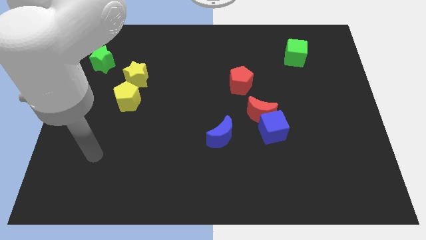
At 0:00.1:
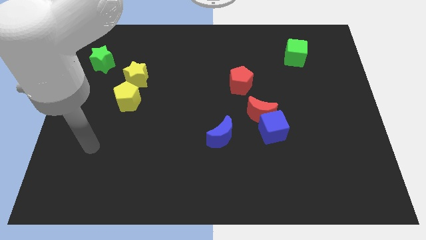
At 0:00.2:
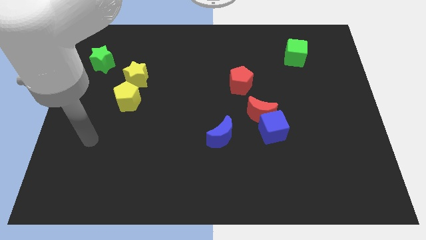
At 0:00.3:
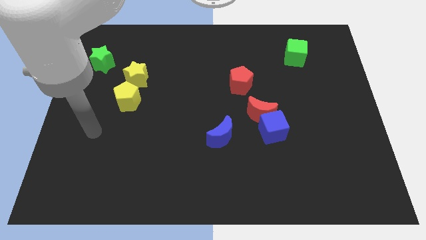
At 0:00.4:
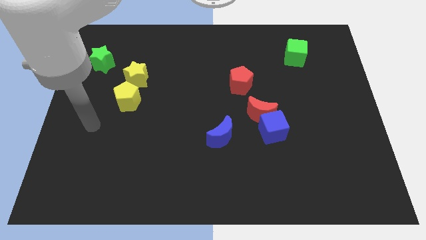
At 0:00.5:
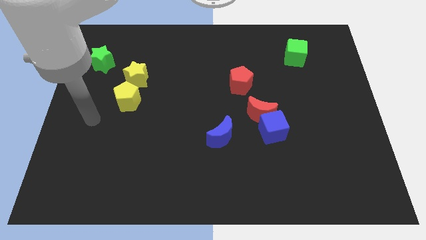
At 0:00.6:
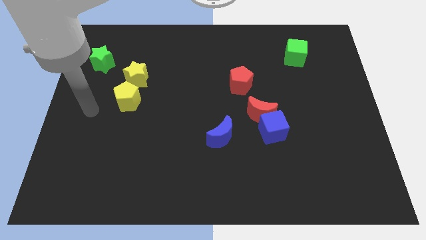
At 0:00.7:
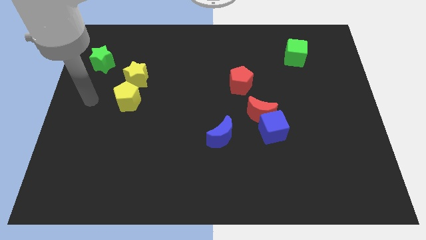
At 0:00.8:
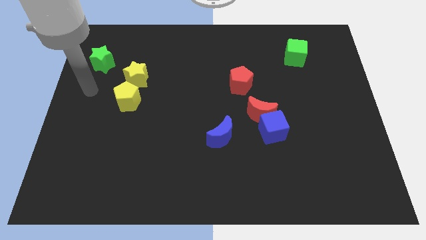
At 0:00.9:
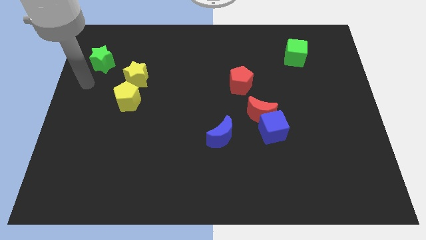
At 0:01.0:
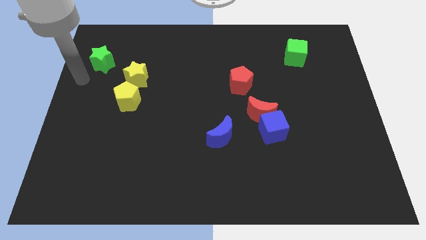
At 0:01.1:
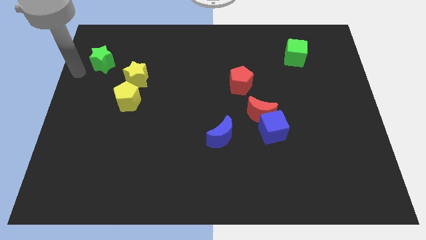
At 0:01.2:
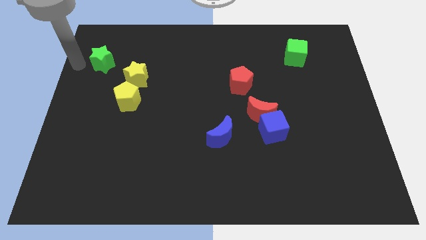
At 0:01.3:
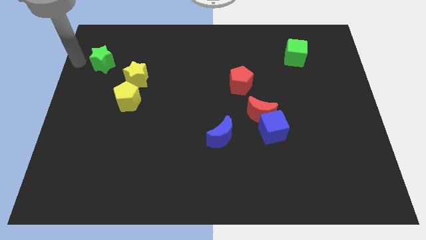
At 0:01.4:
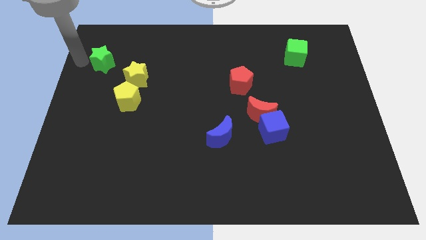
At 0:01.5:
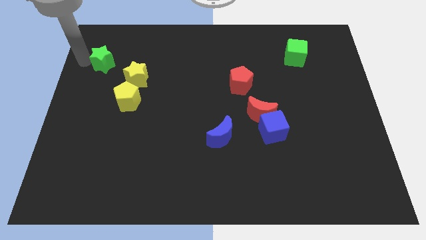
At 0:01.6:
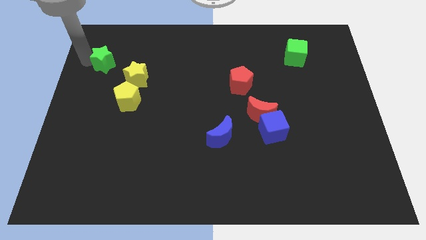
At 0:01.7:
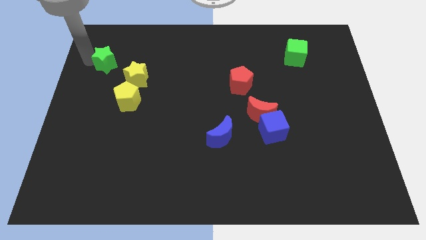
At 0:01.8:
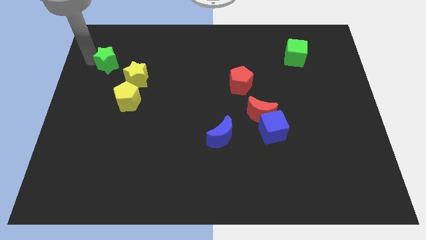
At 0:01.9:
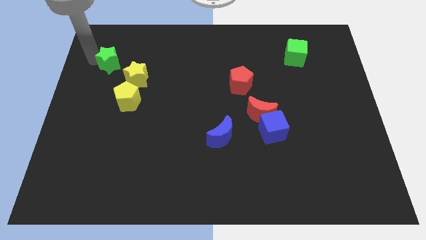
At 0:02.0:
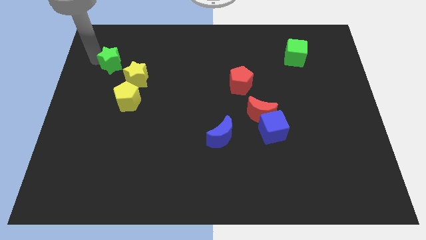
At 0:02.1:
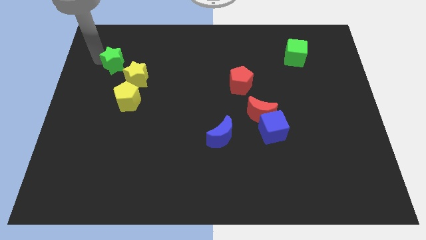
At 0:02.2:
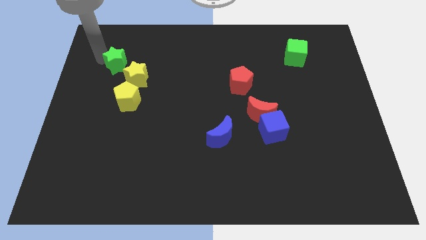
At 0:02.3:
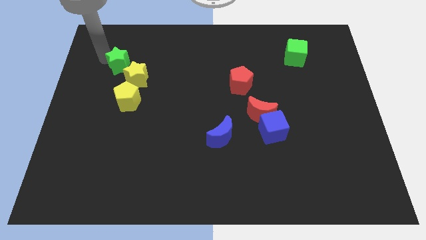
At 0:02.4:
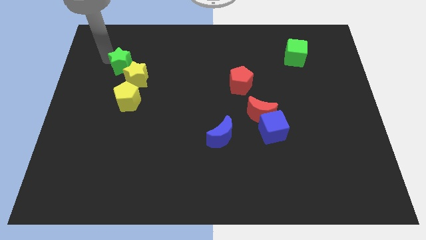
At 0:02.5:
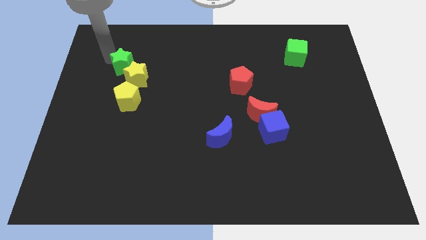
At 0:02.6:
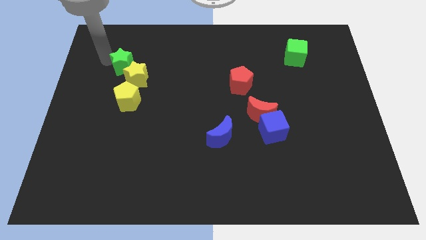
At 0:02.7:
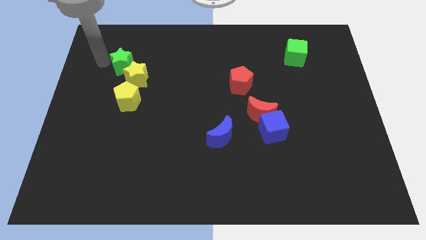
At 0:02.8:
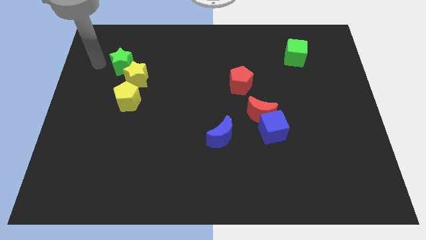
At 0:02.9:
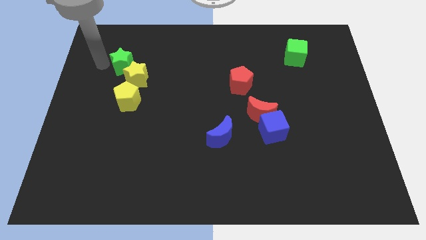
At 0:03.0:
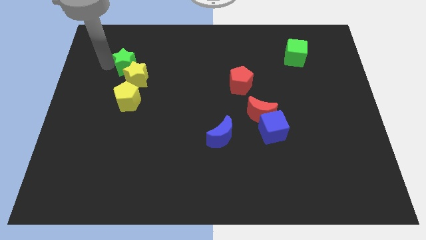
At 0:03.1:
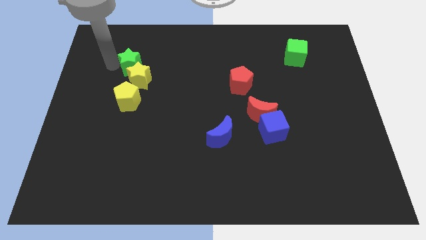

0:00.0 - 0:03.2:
slightly push the green star to the right

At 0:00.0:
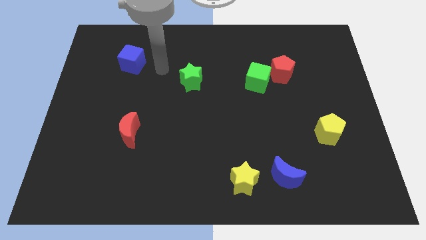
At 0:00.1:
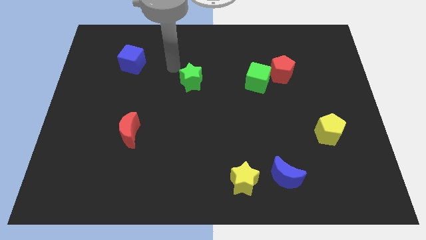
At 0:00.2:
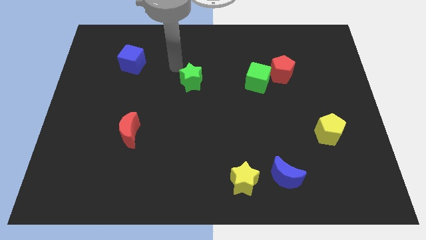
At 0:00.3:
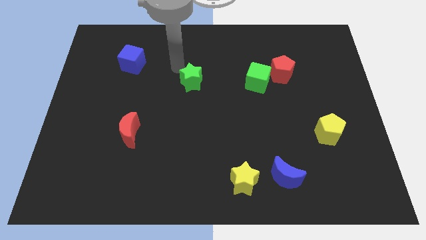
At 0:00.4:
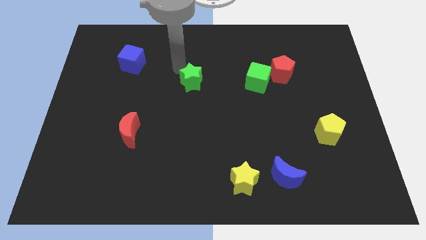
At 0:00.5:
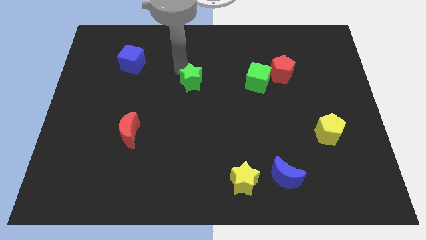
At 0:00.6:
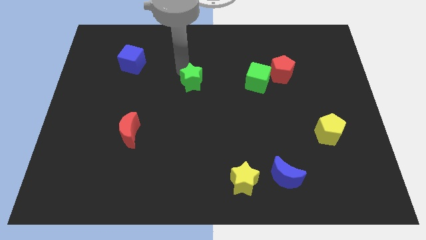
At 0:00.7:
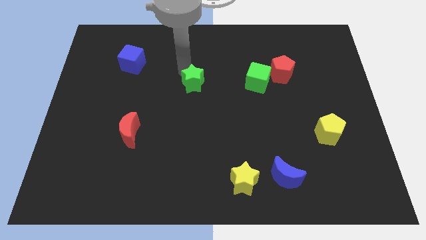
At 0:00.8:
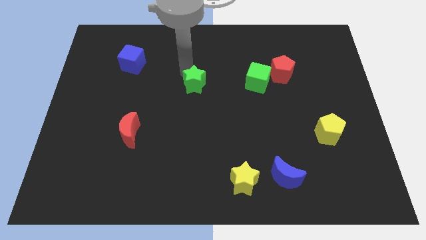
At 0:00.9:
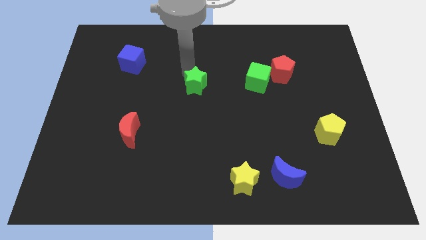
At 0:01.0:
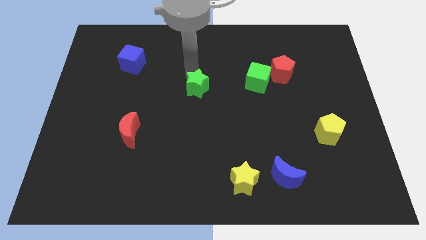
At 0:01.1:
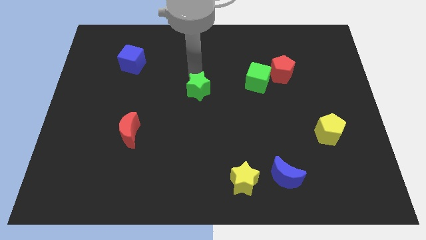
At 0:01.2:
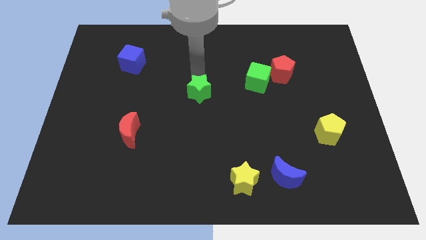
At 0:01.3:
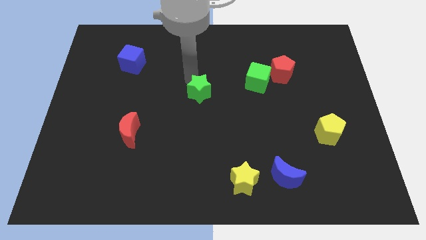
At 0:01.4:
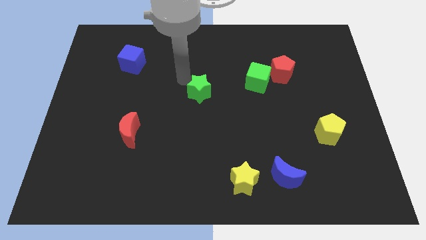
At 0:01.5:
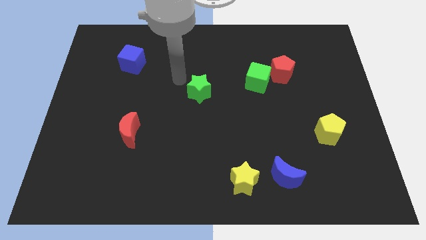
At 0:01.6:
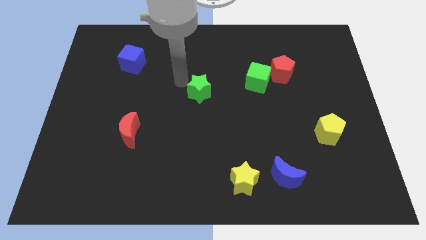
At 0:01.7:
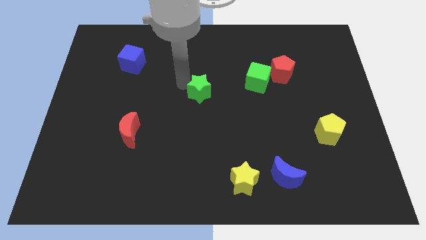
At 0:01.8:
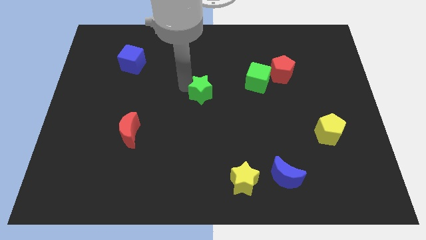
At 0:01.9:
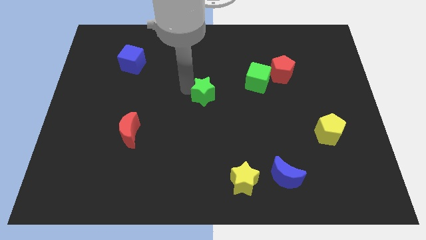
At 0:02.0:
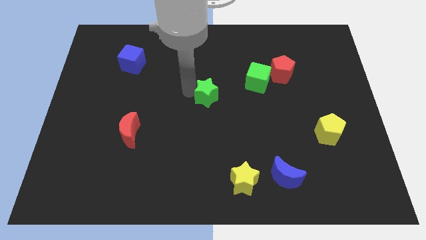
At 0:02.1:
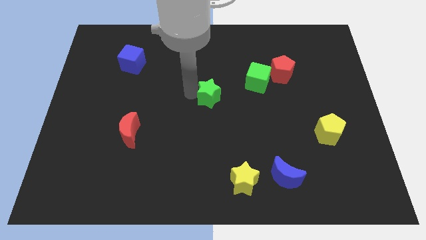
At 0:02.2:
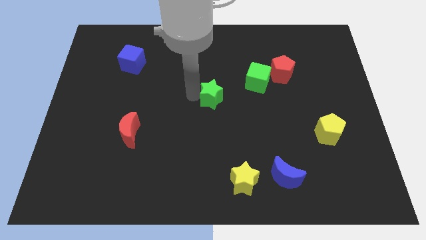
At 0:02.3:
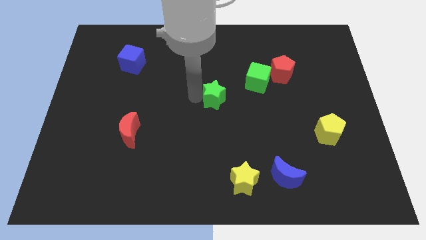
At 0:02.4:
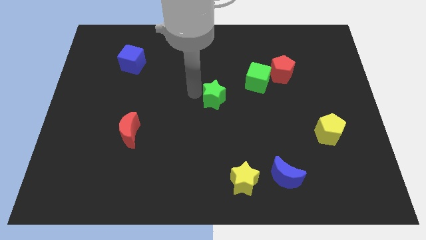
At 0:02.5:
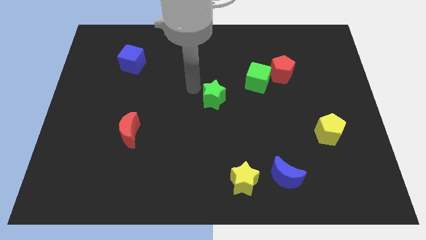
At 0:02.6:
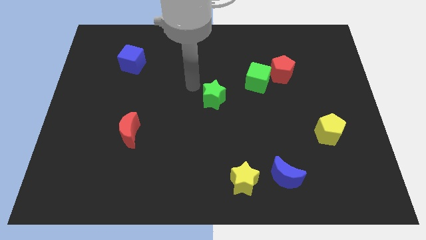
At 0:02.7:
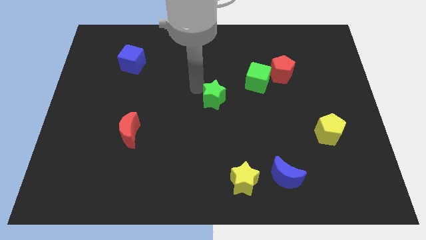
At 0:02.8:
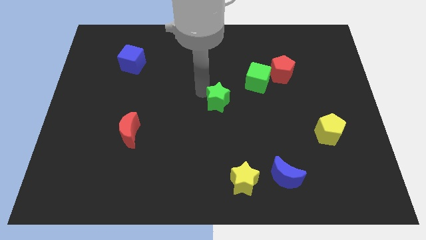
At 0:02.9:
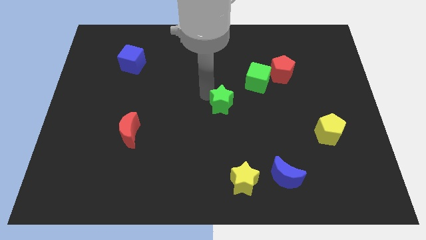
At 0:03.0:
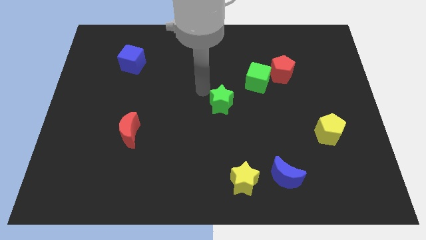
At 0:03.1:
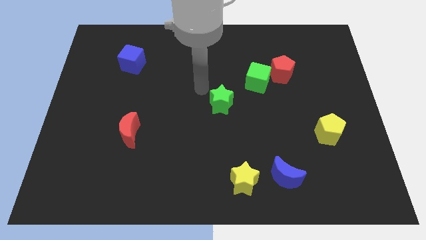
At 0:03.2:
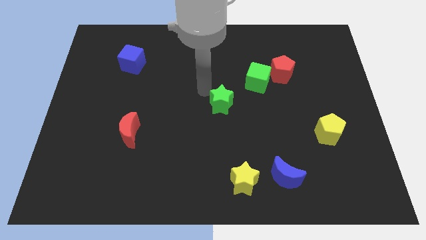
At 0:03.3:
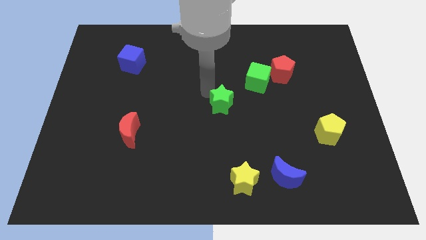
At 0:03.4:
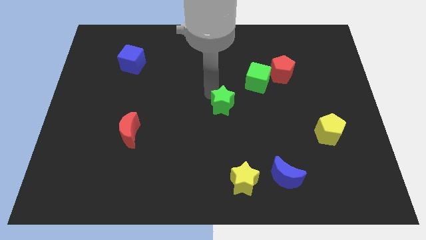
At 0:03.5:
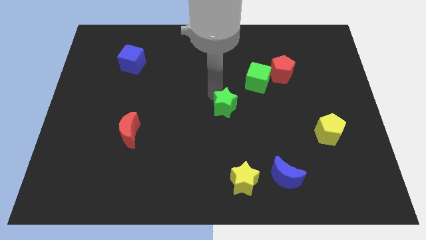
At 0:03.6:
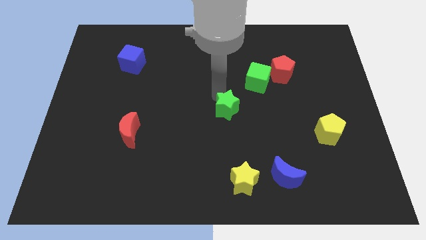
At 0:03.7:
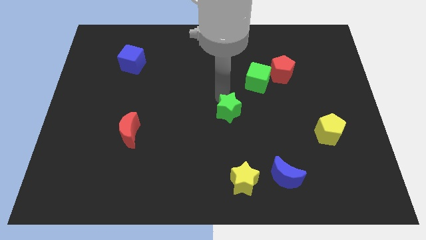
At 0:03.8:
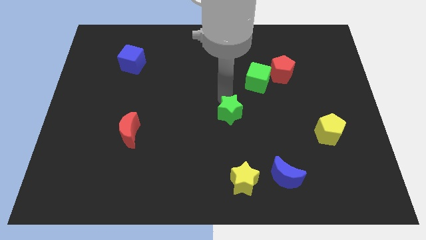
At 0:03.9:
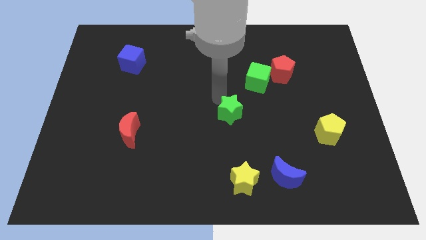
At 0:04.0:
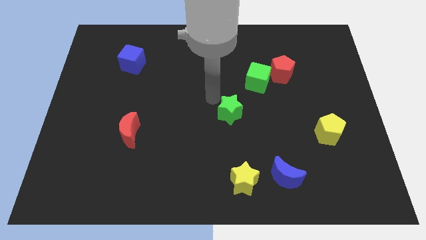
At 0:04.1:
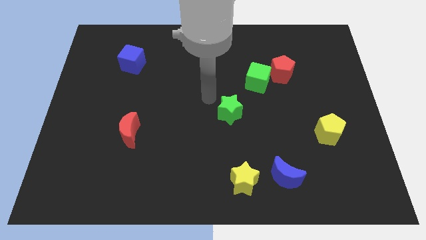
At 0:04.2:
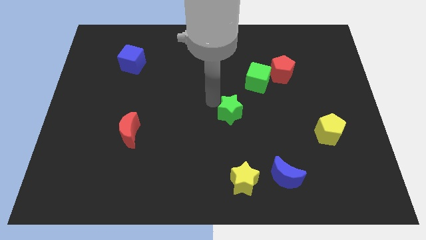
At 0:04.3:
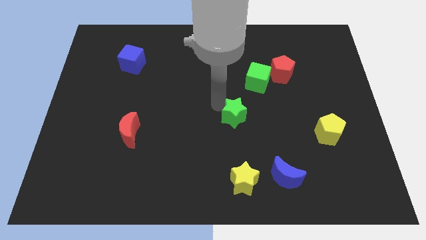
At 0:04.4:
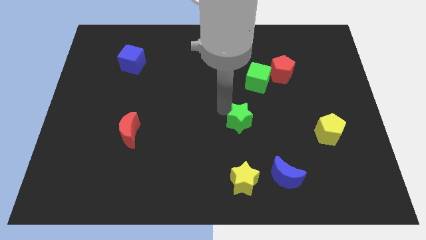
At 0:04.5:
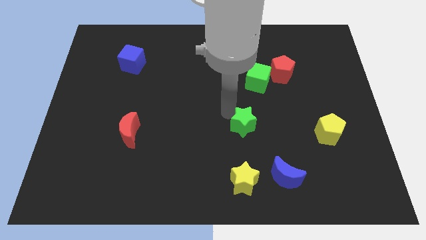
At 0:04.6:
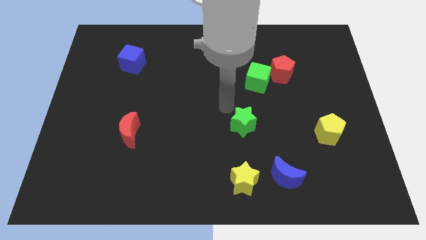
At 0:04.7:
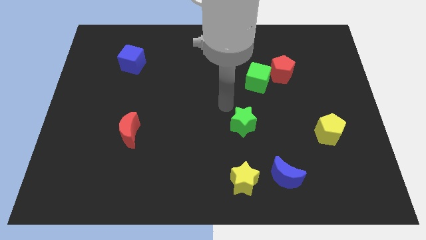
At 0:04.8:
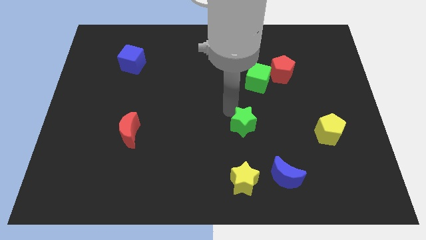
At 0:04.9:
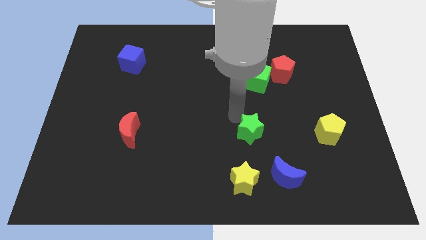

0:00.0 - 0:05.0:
push the green star diagonally down and right
